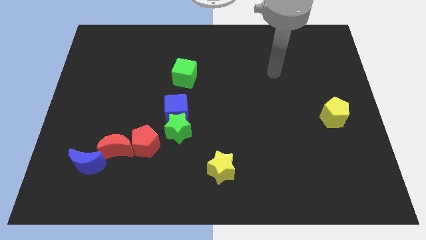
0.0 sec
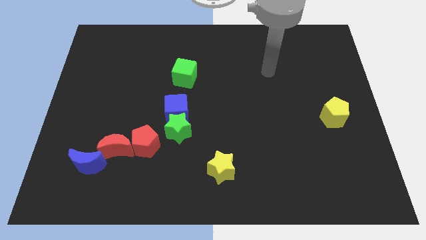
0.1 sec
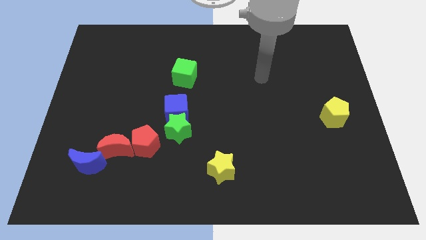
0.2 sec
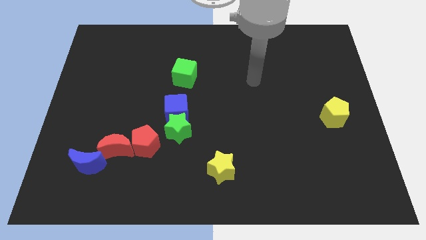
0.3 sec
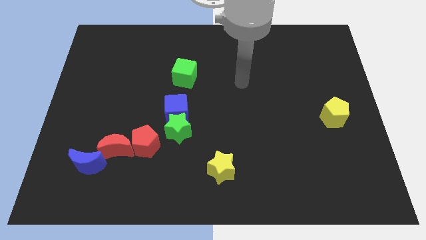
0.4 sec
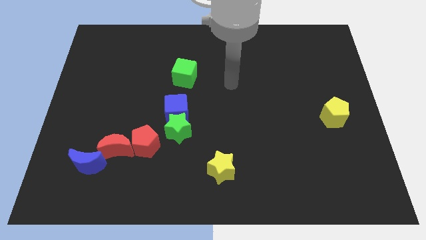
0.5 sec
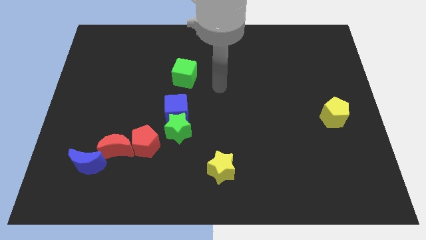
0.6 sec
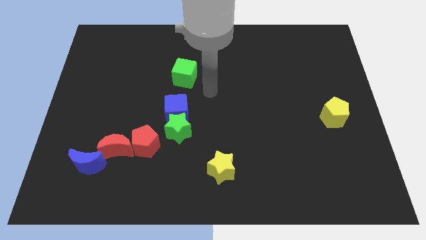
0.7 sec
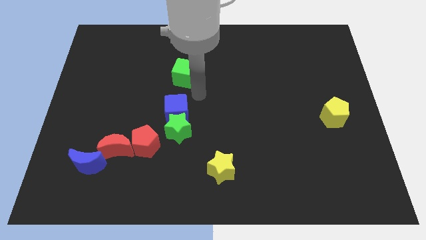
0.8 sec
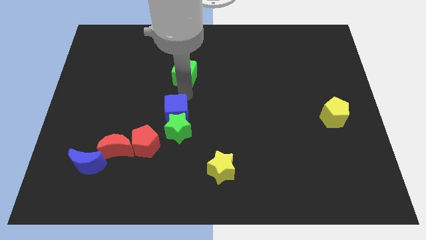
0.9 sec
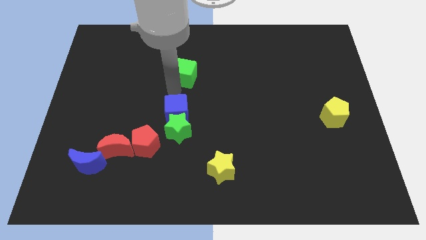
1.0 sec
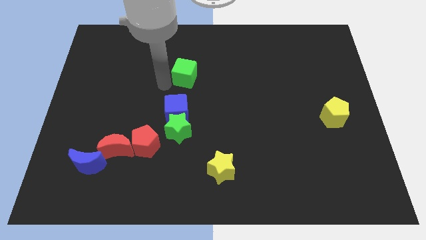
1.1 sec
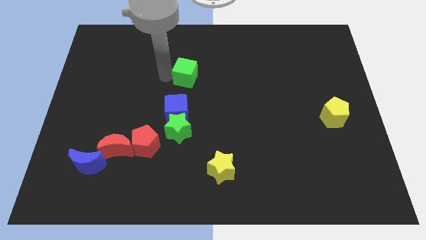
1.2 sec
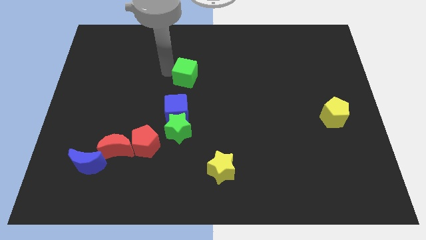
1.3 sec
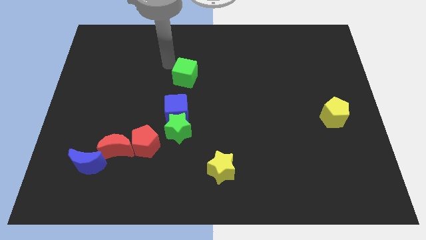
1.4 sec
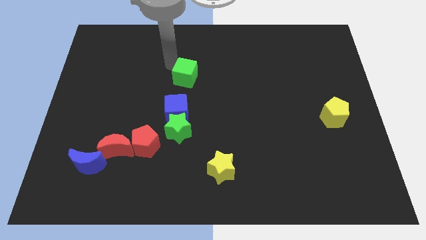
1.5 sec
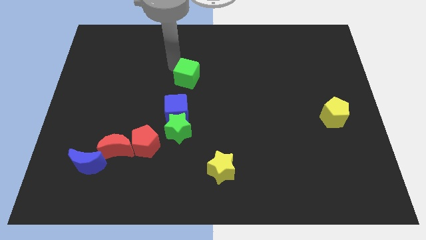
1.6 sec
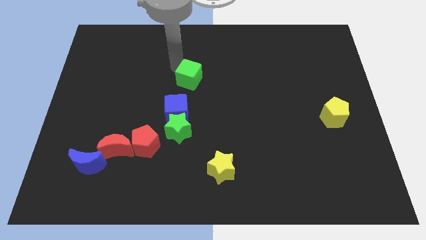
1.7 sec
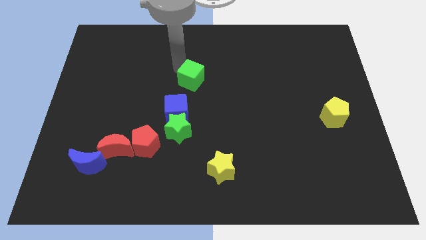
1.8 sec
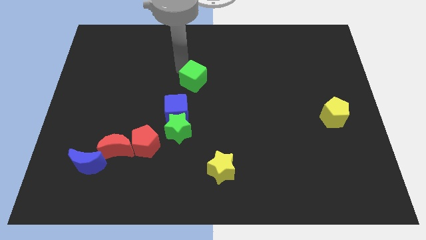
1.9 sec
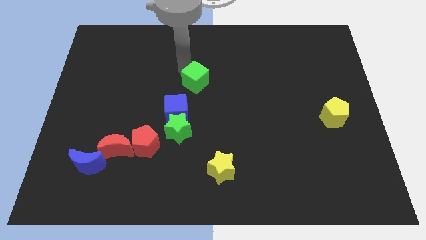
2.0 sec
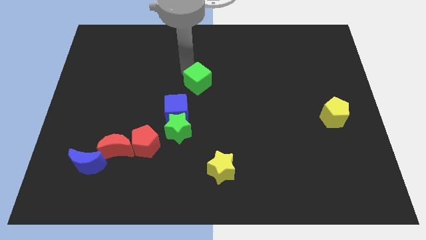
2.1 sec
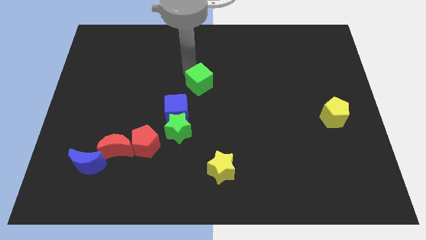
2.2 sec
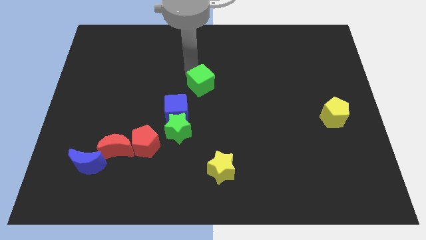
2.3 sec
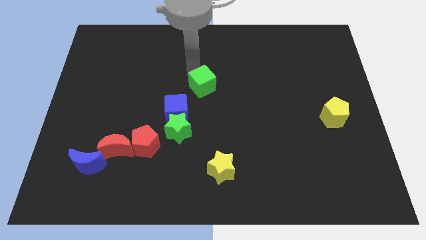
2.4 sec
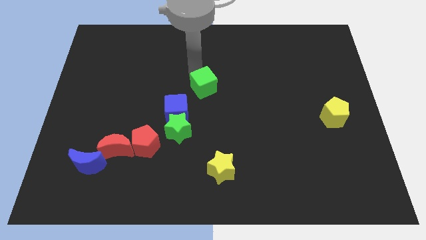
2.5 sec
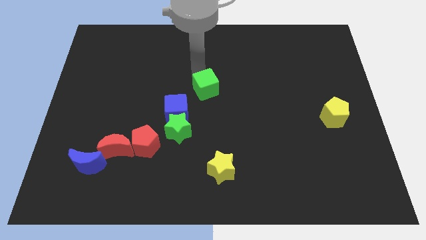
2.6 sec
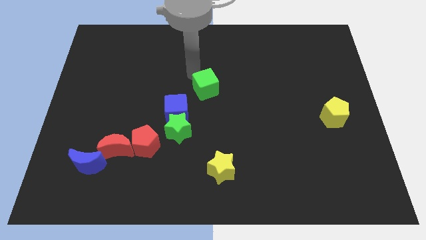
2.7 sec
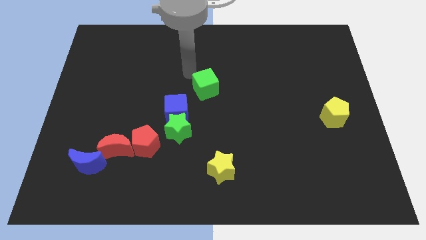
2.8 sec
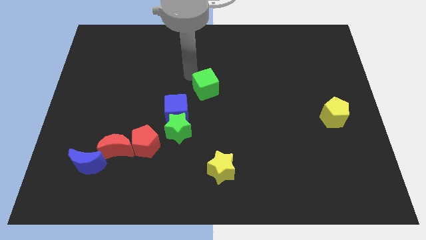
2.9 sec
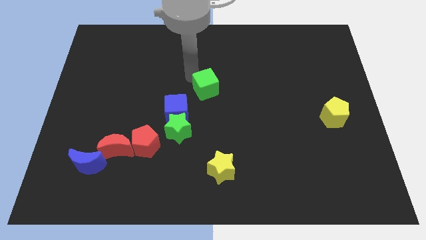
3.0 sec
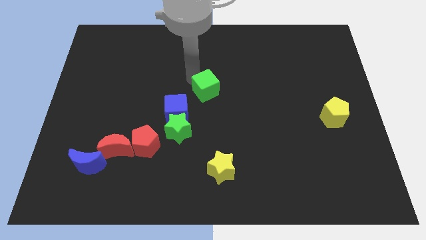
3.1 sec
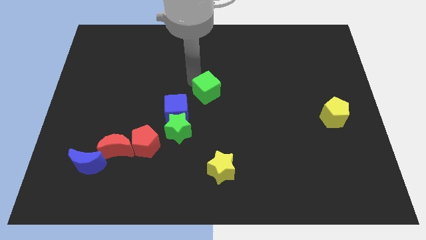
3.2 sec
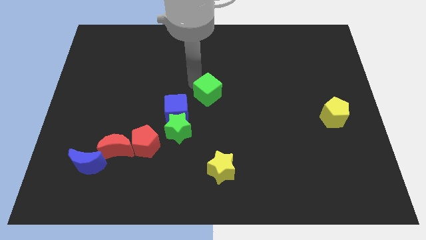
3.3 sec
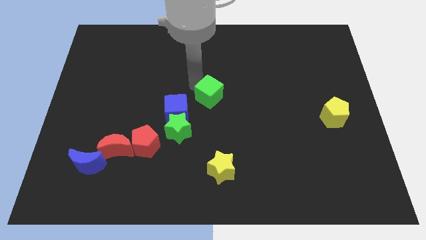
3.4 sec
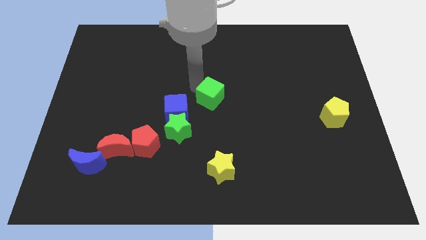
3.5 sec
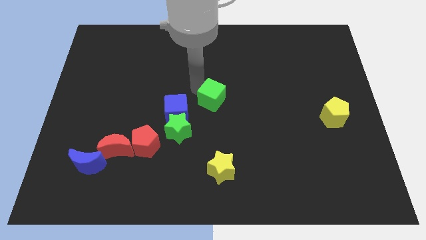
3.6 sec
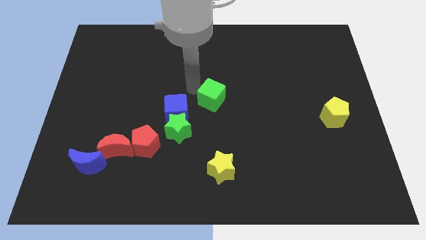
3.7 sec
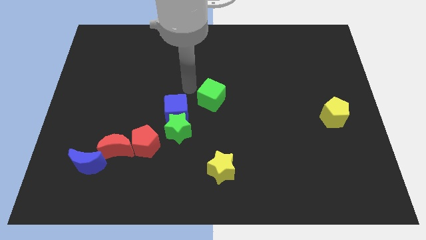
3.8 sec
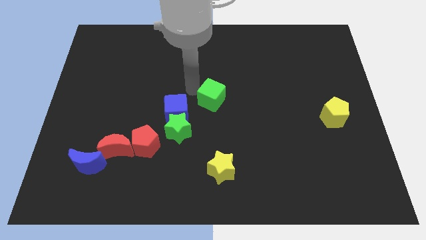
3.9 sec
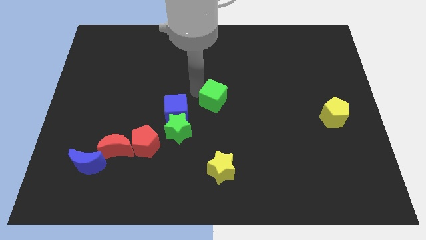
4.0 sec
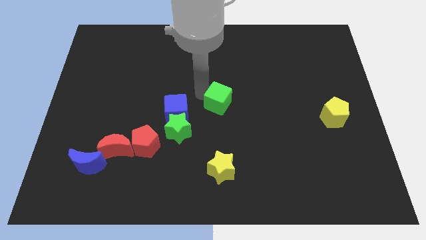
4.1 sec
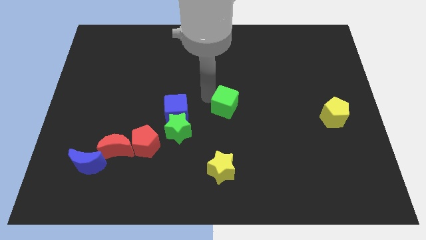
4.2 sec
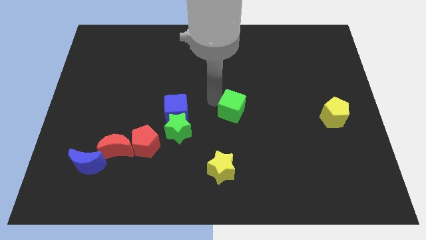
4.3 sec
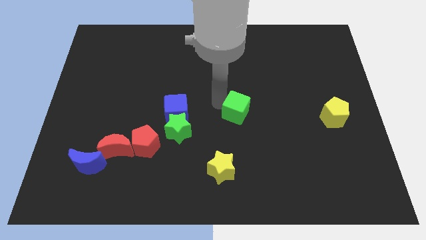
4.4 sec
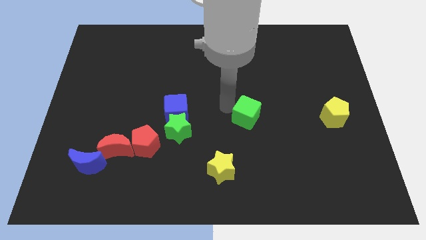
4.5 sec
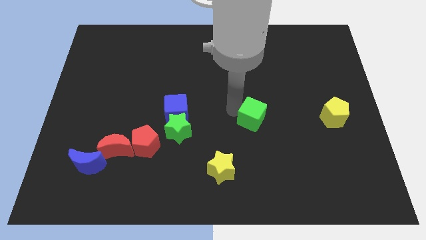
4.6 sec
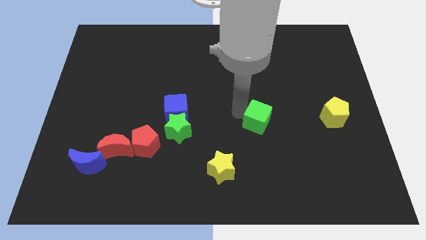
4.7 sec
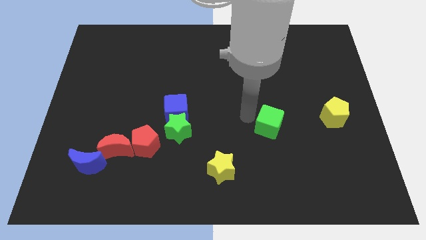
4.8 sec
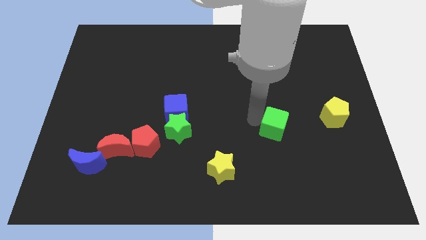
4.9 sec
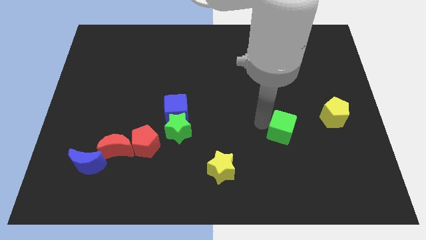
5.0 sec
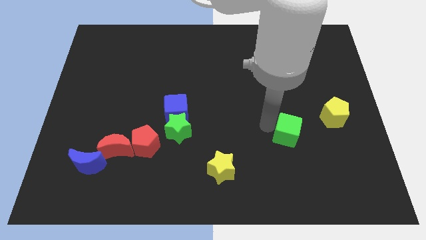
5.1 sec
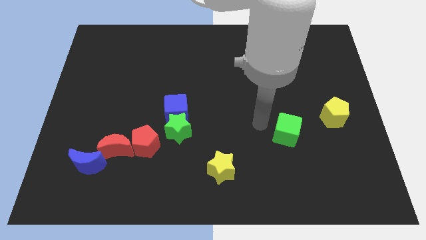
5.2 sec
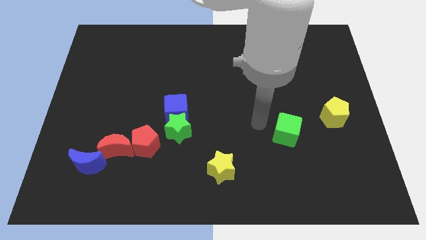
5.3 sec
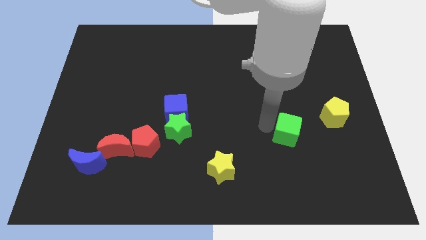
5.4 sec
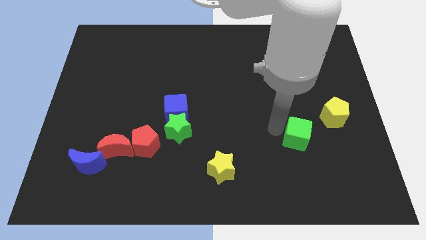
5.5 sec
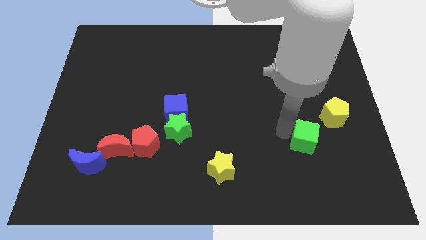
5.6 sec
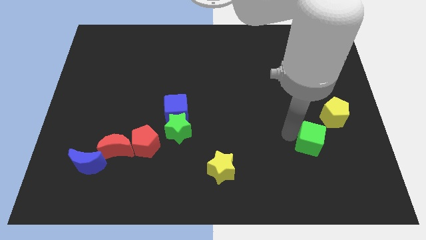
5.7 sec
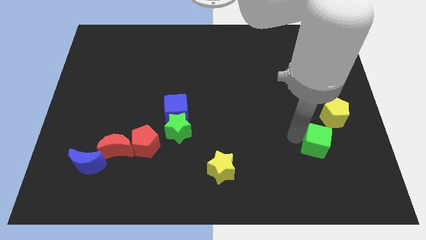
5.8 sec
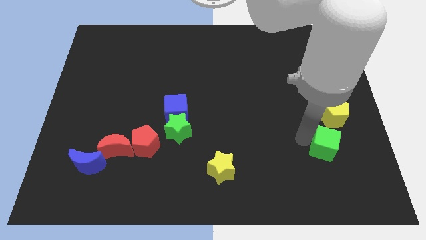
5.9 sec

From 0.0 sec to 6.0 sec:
move the green cube to the bottom side of the yellow pentagon

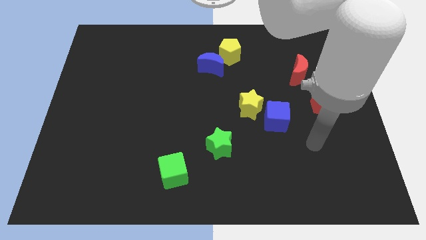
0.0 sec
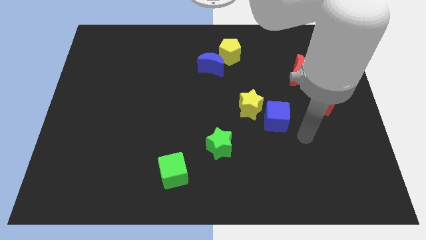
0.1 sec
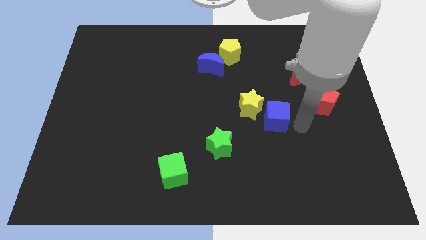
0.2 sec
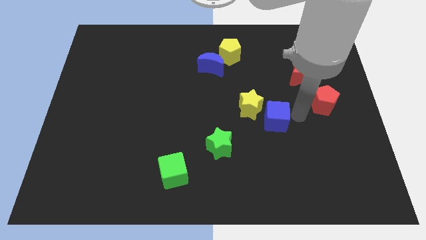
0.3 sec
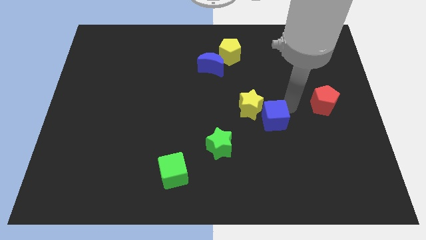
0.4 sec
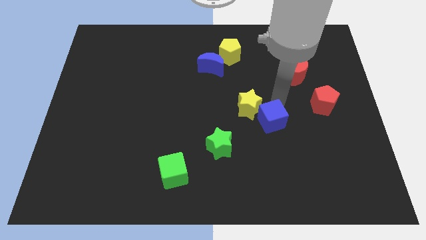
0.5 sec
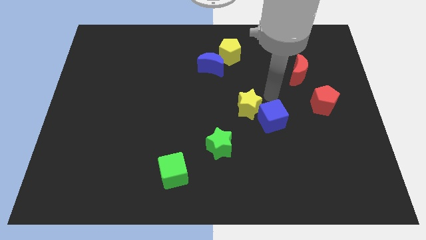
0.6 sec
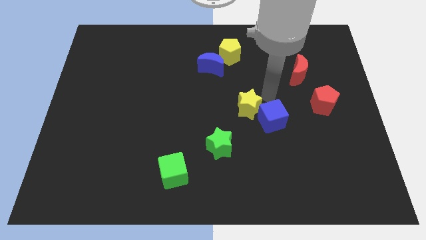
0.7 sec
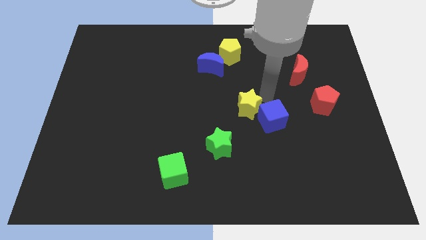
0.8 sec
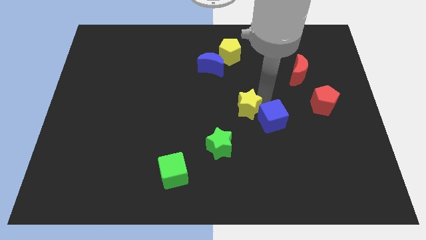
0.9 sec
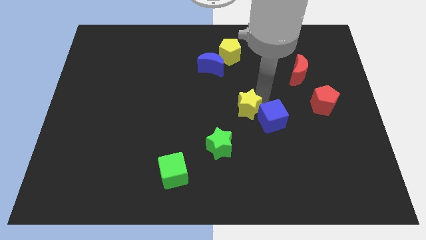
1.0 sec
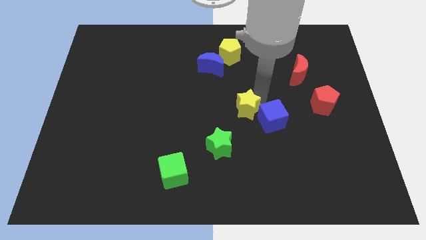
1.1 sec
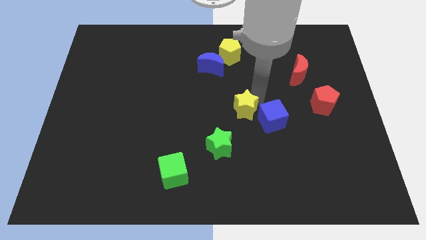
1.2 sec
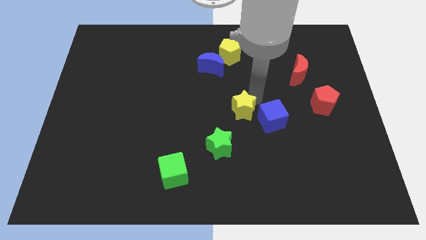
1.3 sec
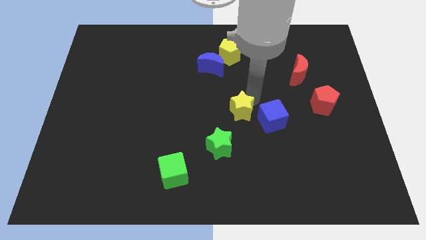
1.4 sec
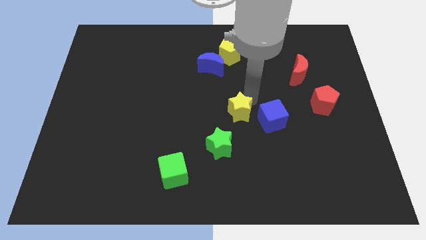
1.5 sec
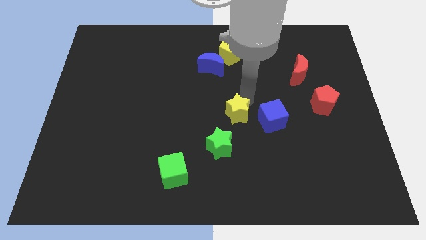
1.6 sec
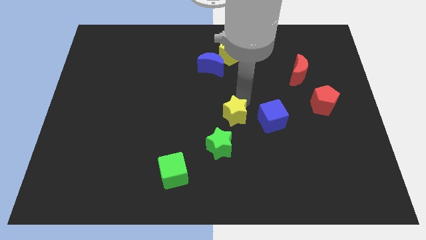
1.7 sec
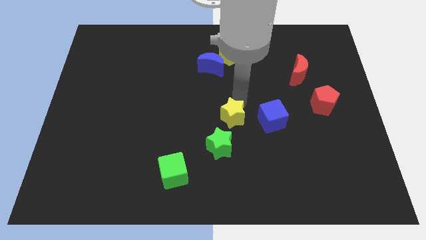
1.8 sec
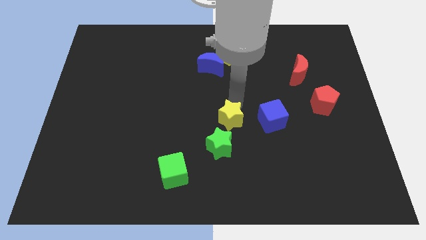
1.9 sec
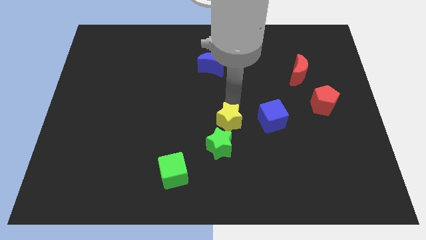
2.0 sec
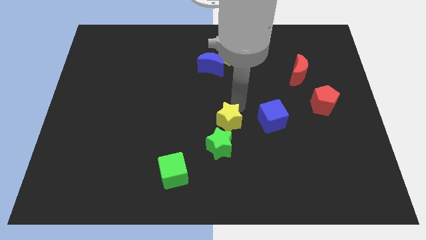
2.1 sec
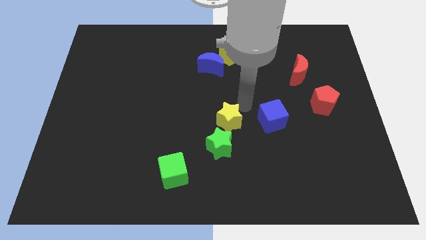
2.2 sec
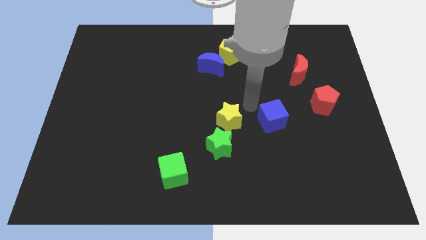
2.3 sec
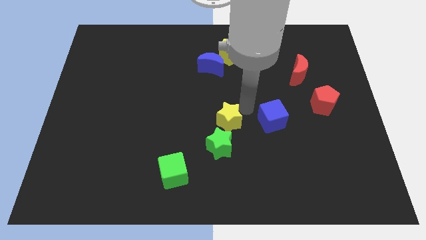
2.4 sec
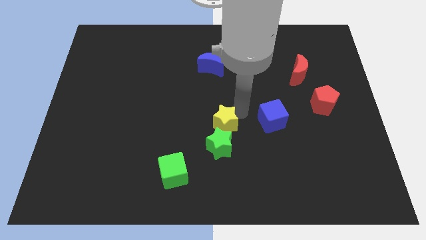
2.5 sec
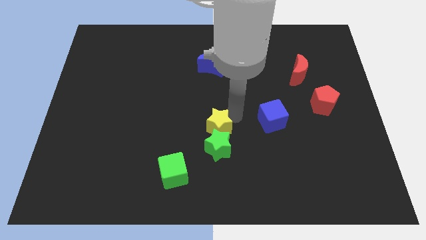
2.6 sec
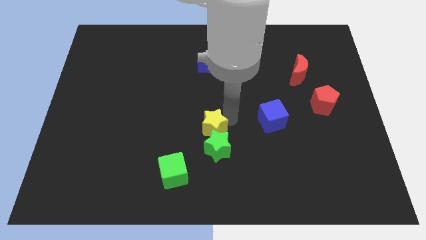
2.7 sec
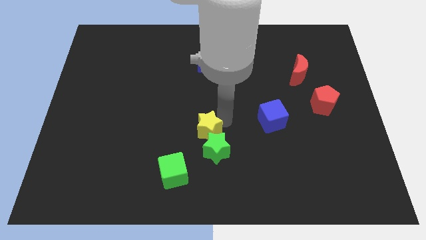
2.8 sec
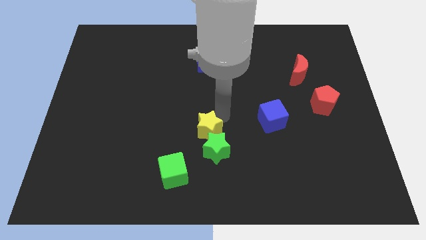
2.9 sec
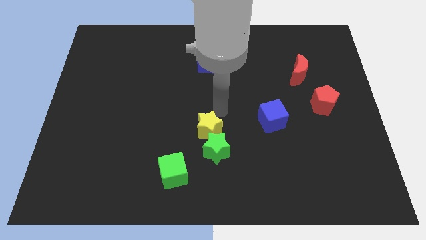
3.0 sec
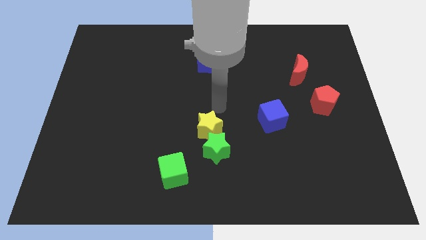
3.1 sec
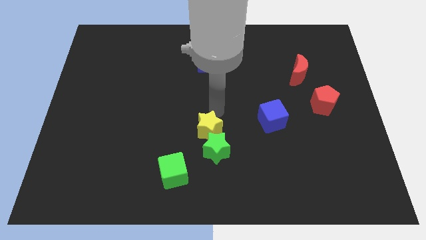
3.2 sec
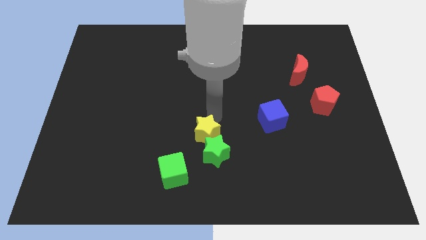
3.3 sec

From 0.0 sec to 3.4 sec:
put the yellow star diagonally up and to the right of the green cube
